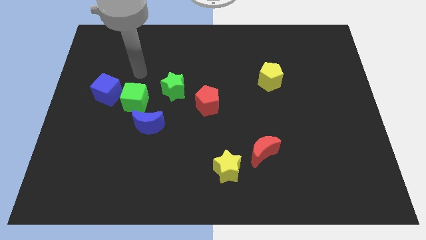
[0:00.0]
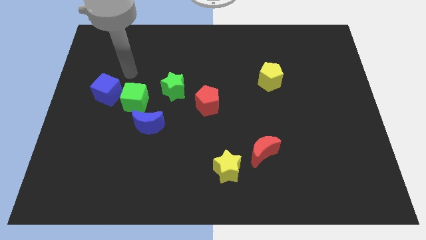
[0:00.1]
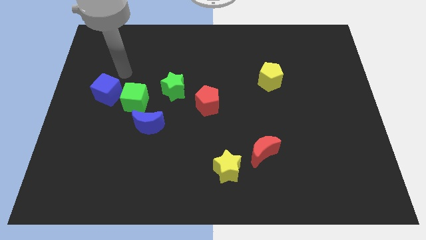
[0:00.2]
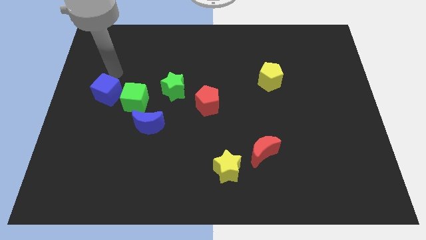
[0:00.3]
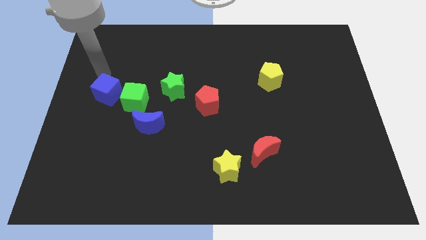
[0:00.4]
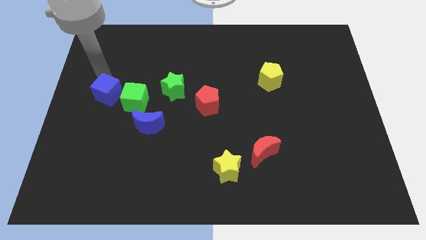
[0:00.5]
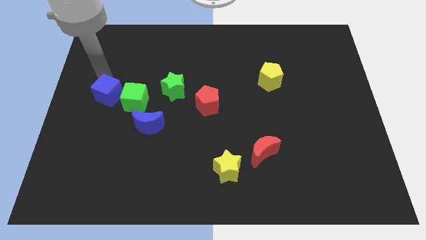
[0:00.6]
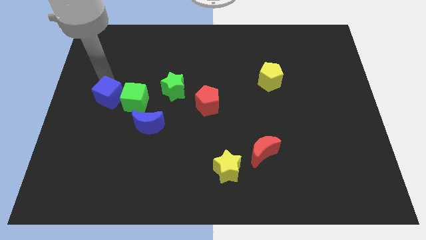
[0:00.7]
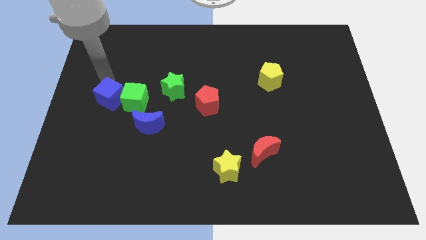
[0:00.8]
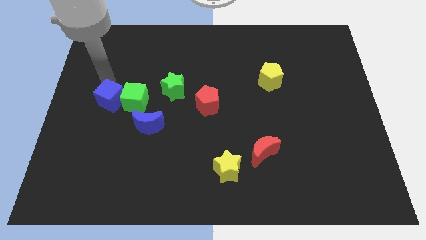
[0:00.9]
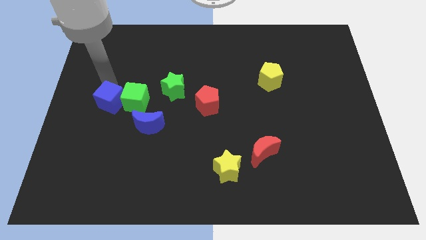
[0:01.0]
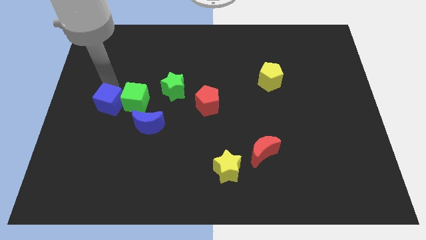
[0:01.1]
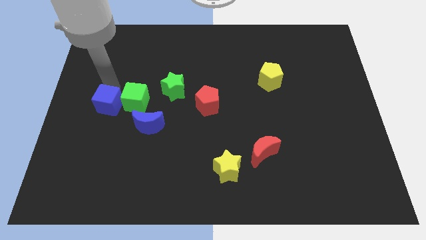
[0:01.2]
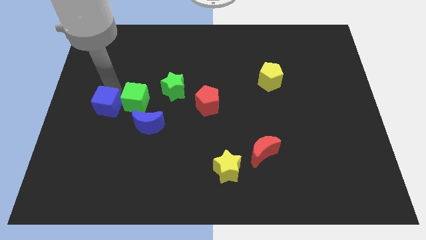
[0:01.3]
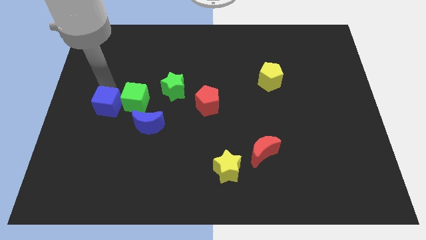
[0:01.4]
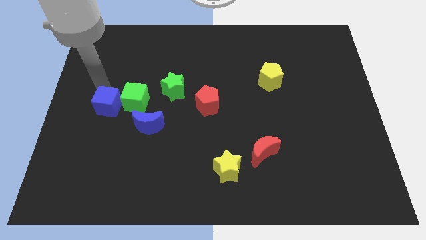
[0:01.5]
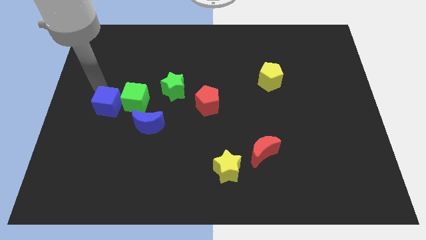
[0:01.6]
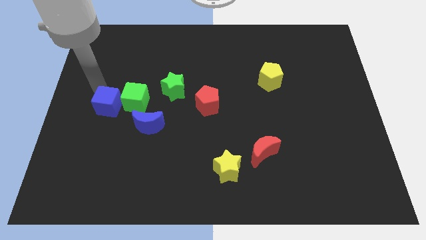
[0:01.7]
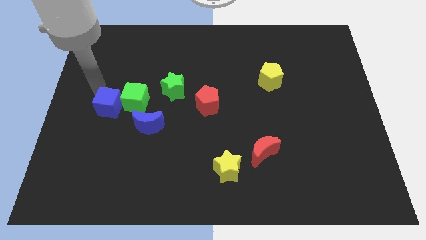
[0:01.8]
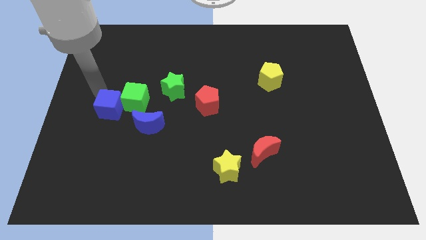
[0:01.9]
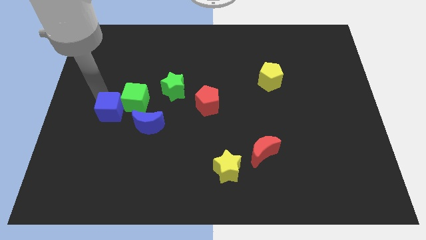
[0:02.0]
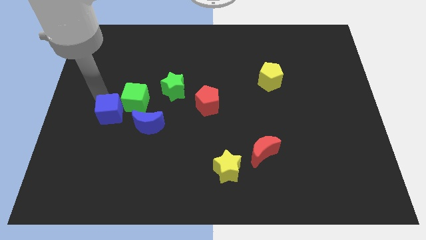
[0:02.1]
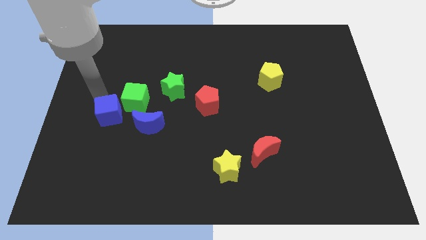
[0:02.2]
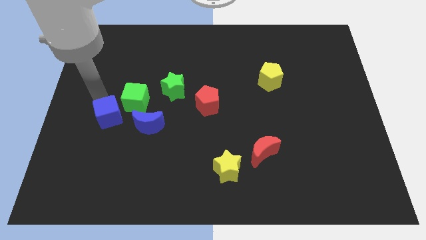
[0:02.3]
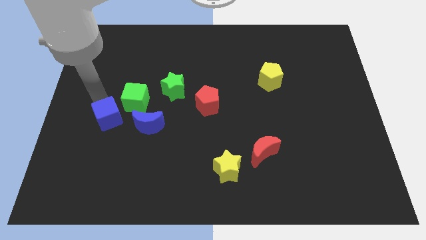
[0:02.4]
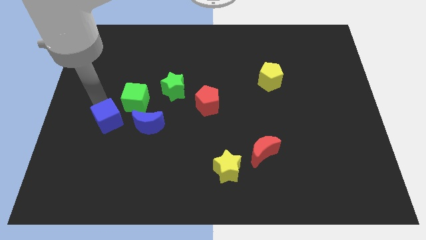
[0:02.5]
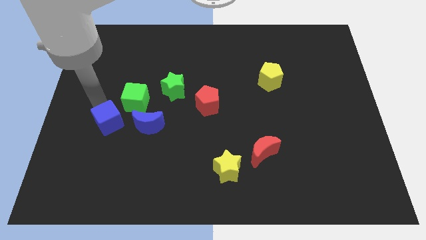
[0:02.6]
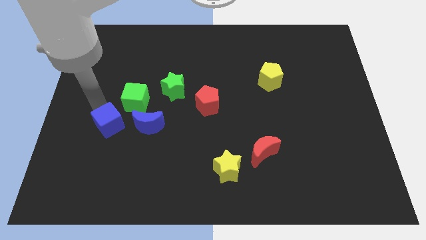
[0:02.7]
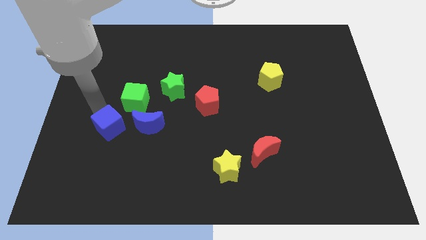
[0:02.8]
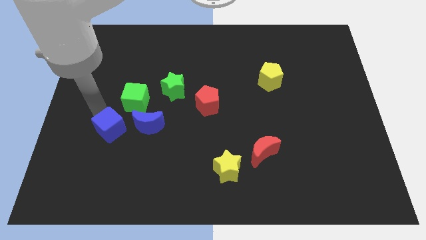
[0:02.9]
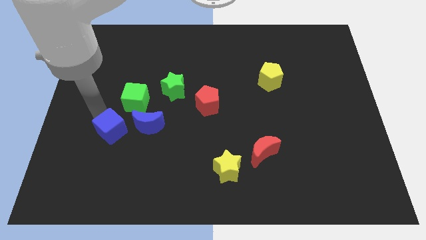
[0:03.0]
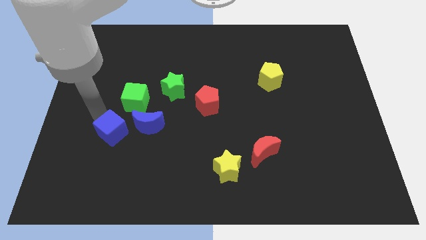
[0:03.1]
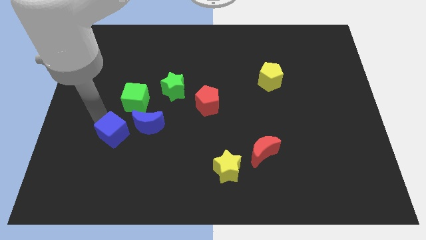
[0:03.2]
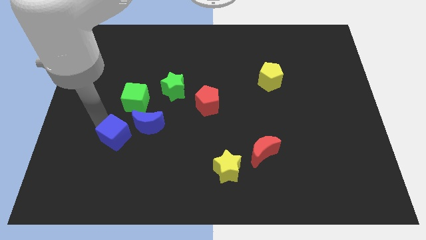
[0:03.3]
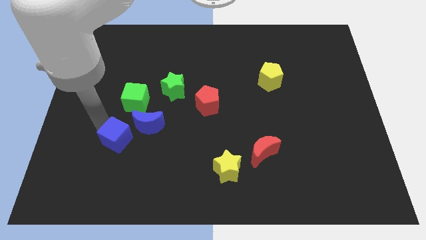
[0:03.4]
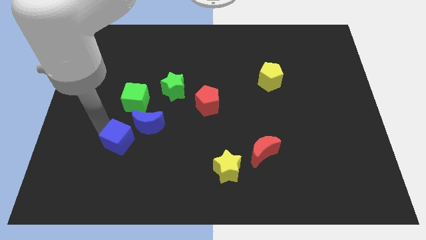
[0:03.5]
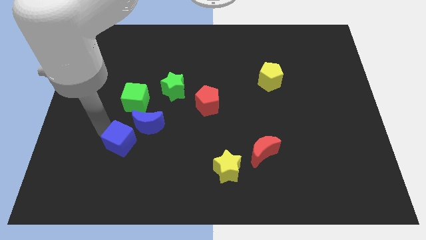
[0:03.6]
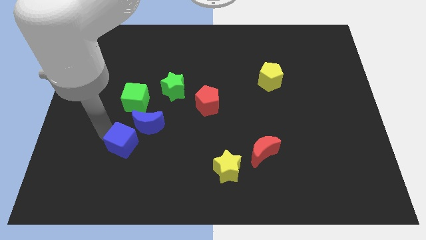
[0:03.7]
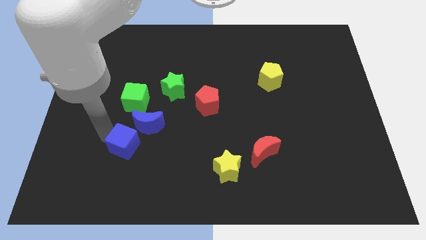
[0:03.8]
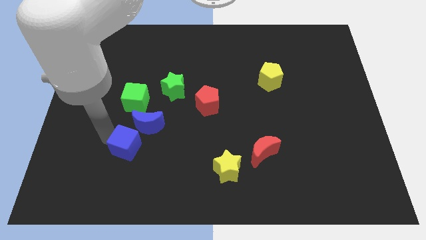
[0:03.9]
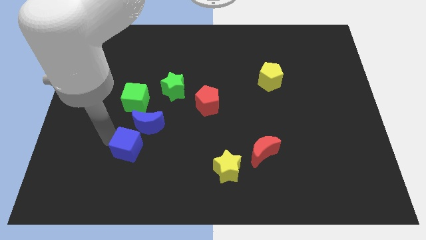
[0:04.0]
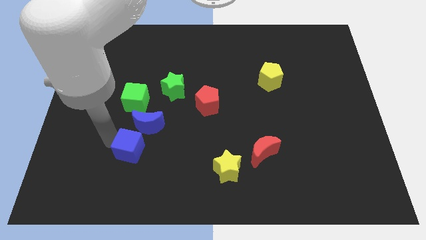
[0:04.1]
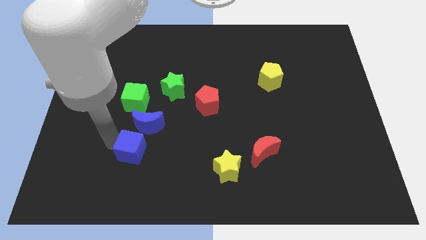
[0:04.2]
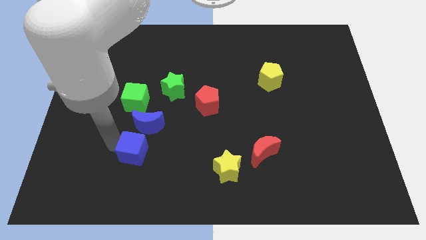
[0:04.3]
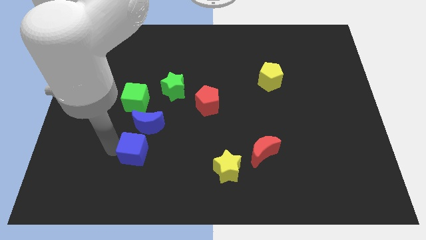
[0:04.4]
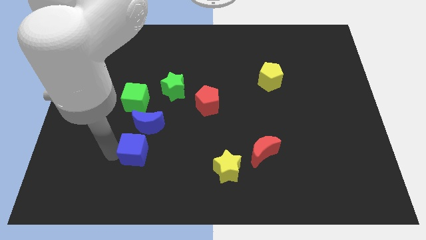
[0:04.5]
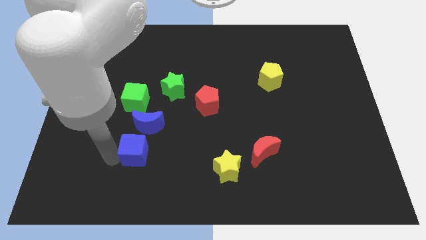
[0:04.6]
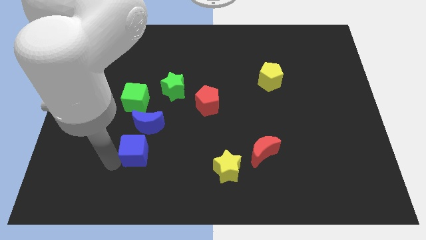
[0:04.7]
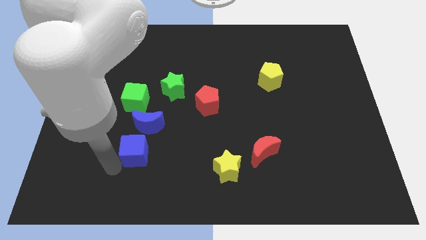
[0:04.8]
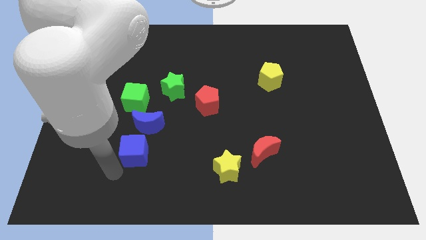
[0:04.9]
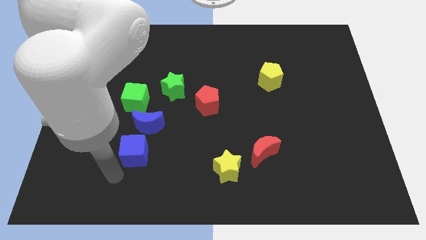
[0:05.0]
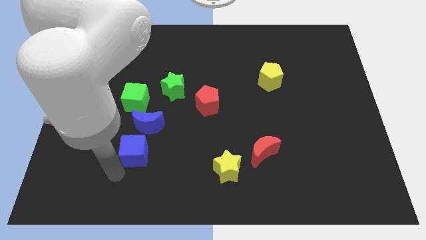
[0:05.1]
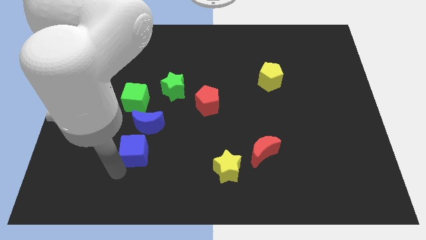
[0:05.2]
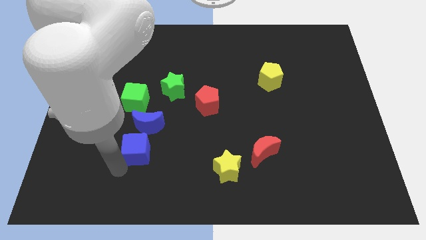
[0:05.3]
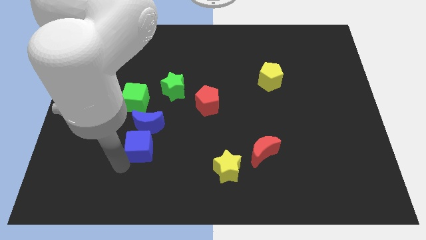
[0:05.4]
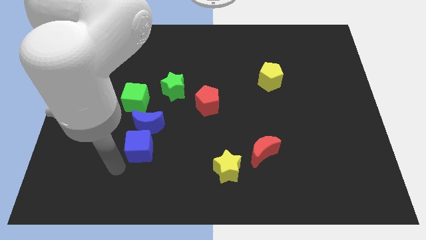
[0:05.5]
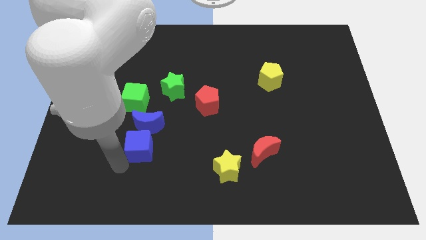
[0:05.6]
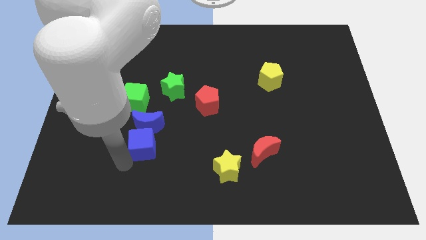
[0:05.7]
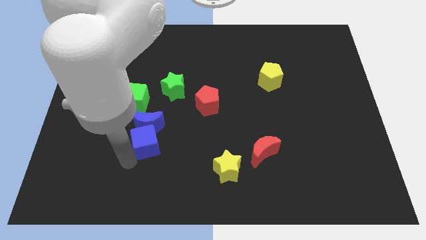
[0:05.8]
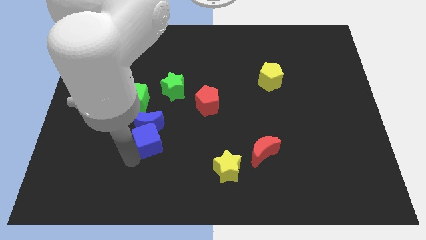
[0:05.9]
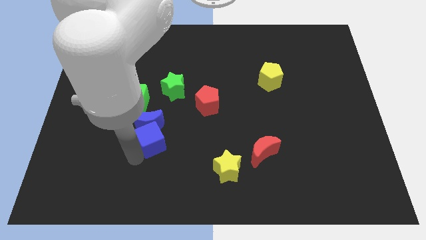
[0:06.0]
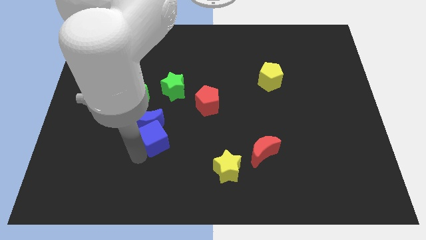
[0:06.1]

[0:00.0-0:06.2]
slide the blue cube below the green star

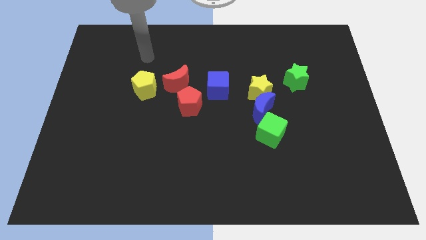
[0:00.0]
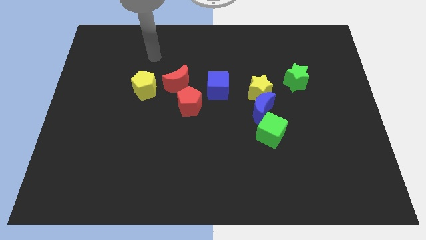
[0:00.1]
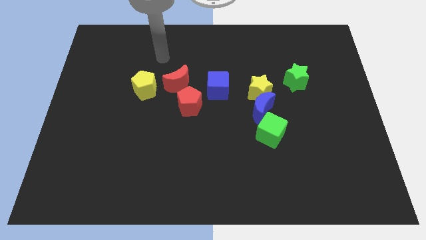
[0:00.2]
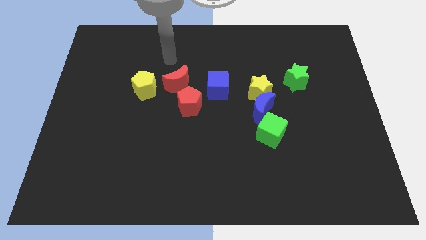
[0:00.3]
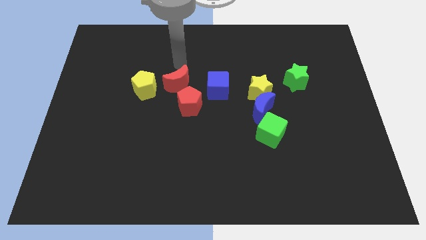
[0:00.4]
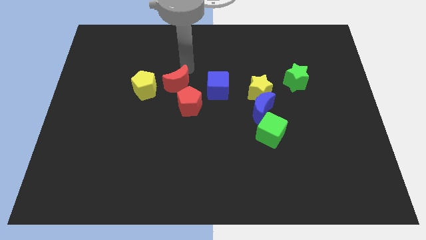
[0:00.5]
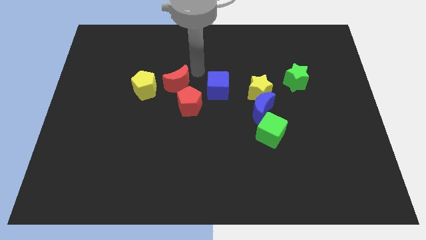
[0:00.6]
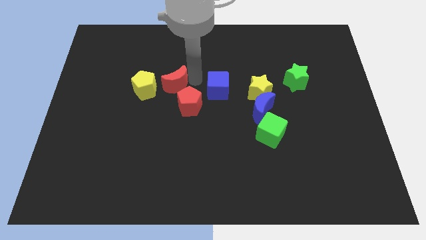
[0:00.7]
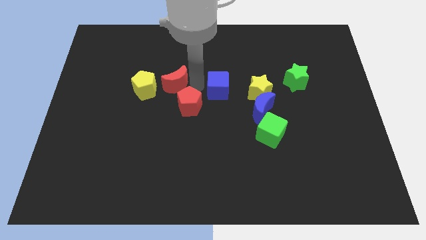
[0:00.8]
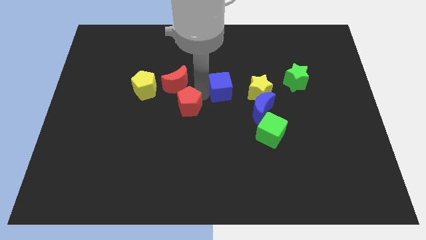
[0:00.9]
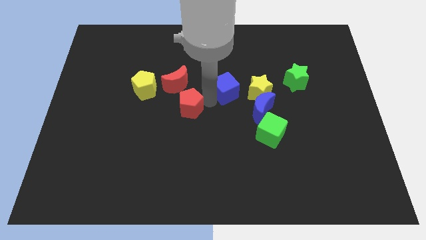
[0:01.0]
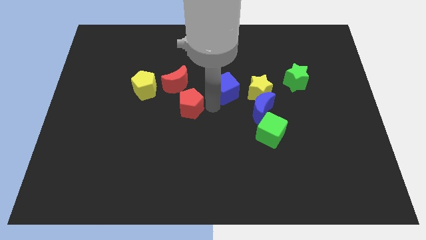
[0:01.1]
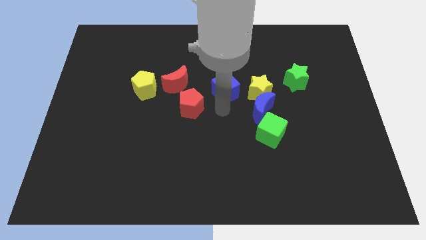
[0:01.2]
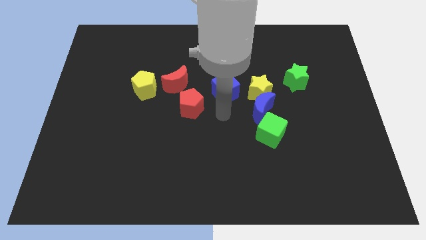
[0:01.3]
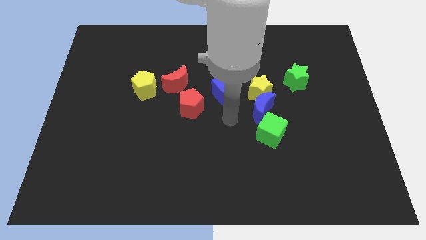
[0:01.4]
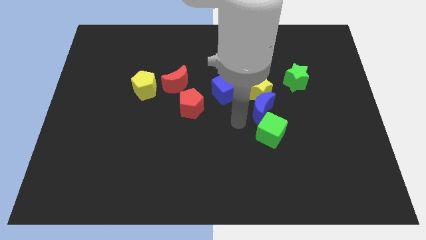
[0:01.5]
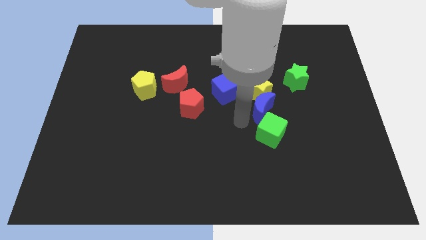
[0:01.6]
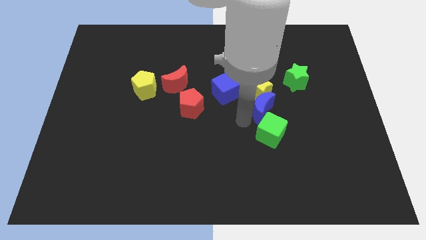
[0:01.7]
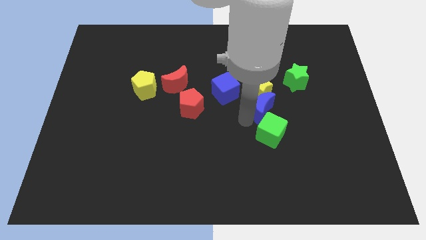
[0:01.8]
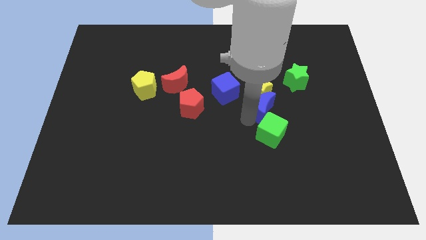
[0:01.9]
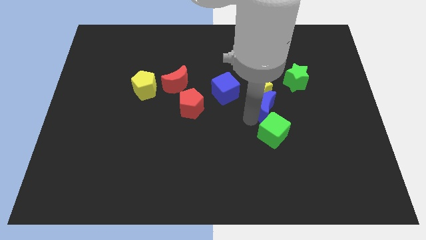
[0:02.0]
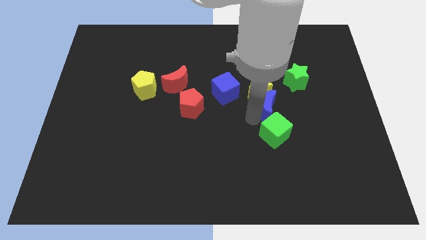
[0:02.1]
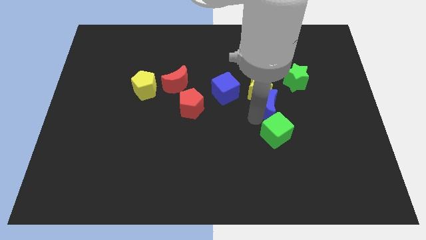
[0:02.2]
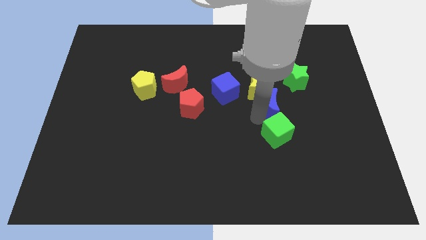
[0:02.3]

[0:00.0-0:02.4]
put the blue moon to the right side of the blue cube
